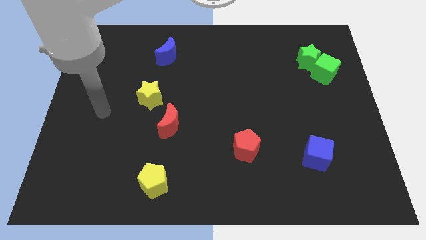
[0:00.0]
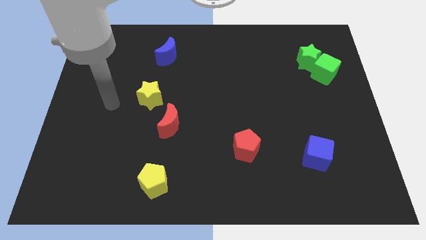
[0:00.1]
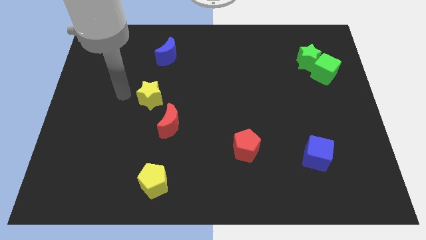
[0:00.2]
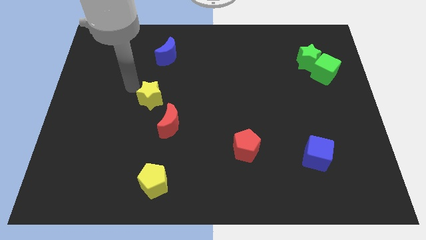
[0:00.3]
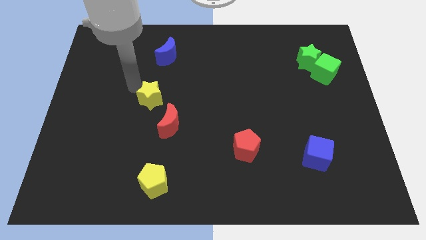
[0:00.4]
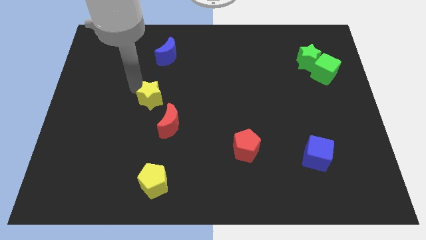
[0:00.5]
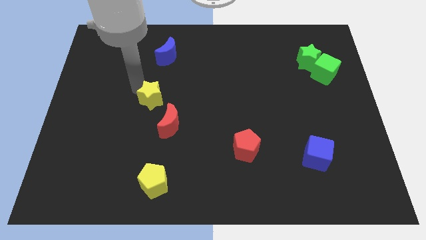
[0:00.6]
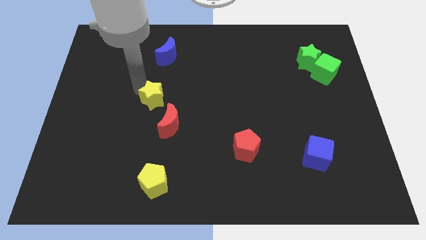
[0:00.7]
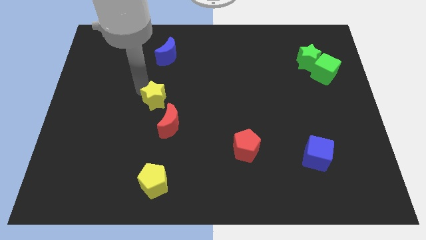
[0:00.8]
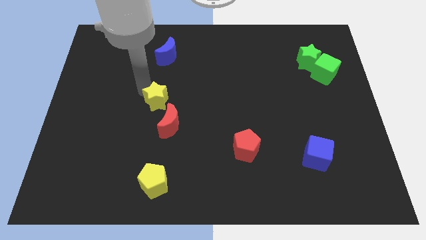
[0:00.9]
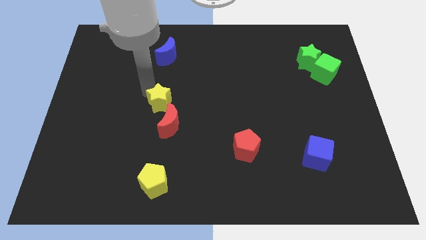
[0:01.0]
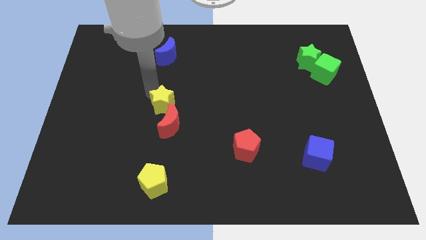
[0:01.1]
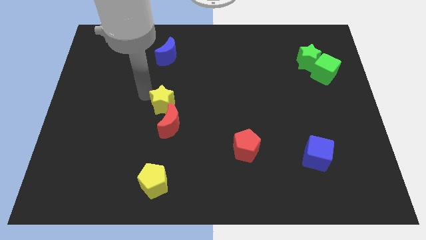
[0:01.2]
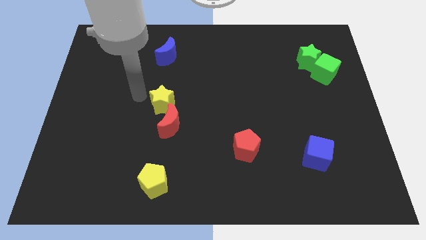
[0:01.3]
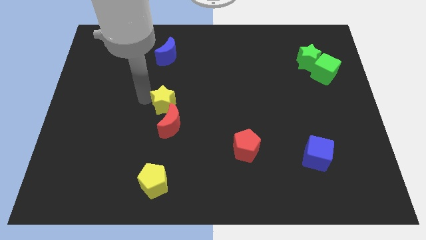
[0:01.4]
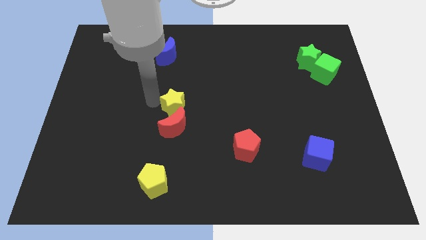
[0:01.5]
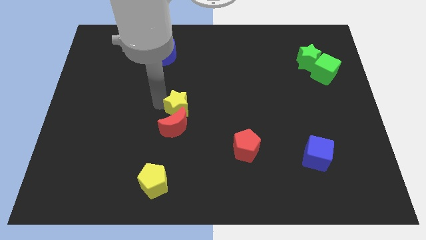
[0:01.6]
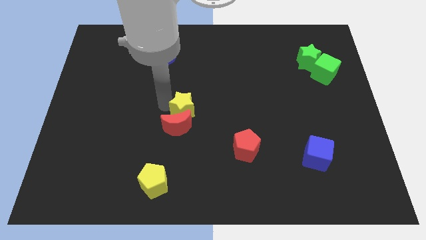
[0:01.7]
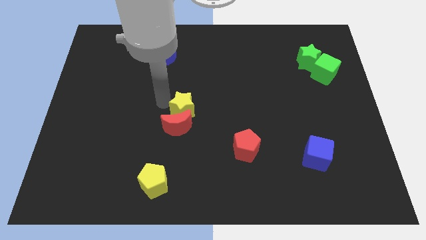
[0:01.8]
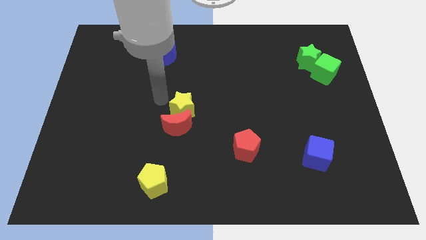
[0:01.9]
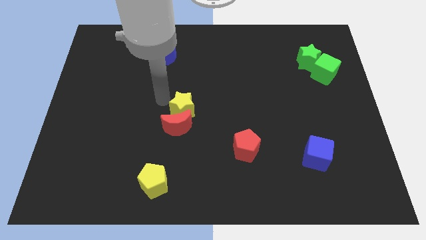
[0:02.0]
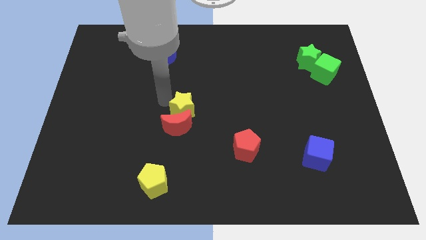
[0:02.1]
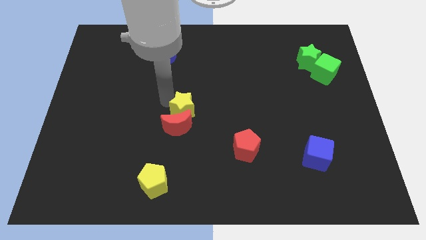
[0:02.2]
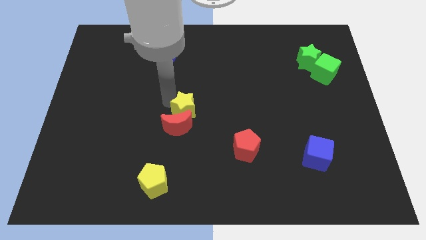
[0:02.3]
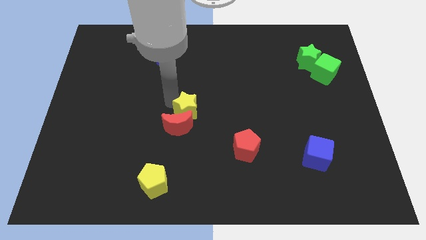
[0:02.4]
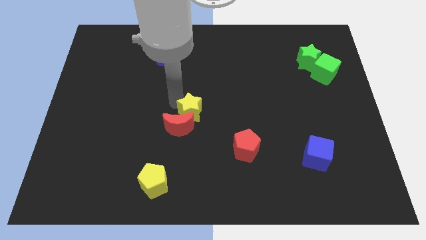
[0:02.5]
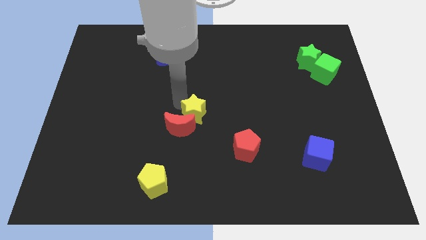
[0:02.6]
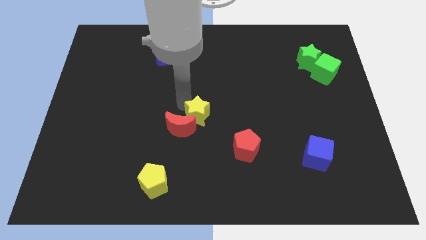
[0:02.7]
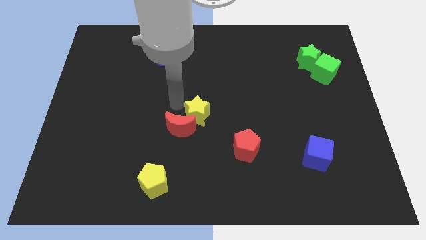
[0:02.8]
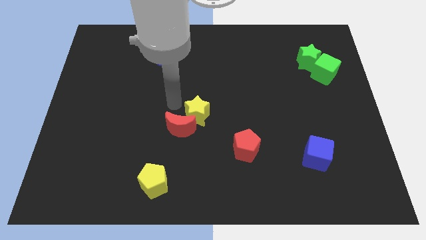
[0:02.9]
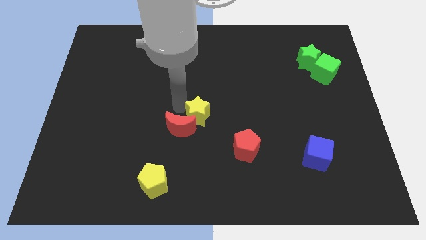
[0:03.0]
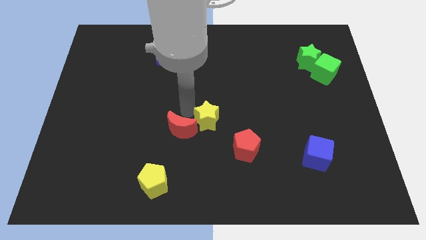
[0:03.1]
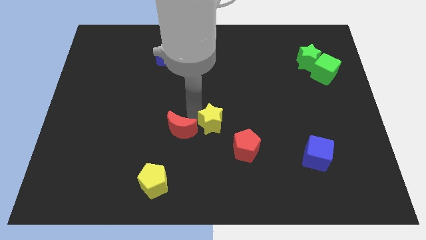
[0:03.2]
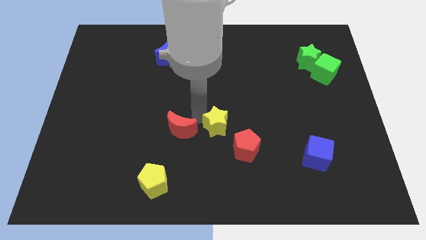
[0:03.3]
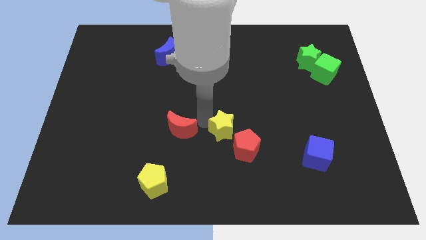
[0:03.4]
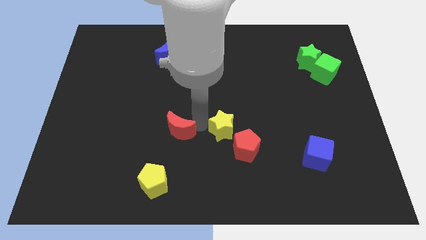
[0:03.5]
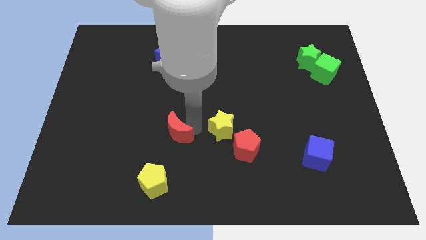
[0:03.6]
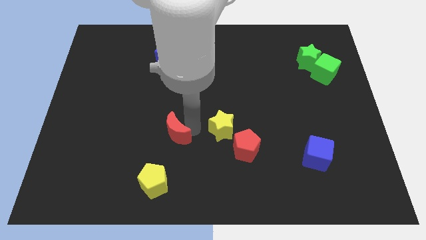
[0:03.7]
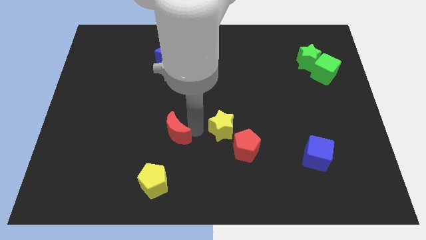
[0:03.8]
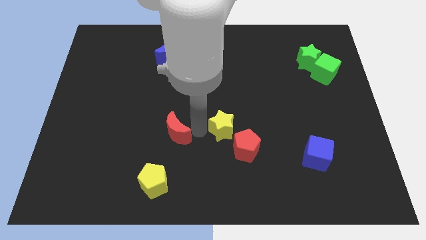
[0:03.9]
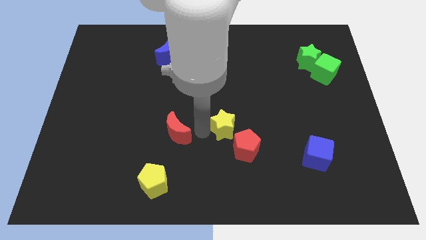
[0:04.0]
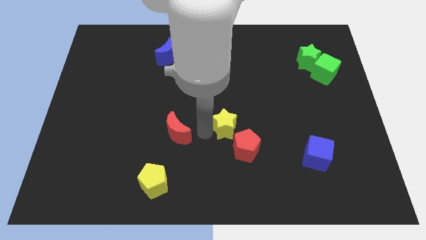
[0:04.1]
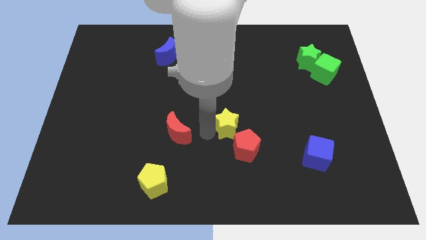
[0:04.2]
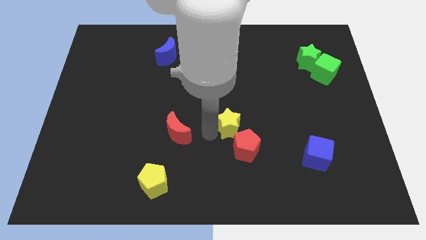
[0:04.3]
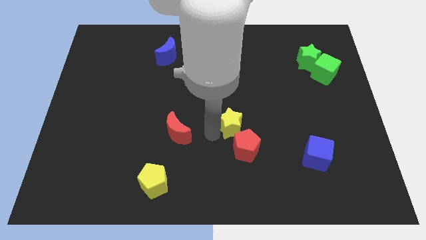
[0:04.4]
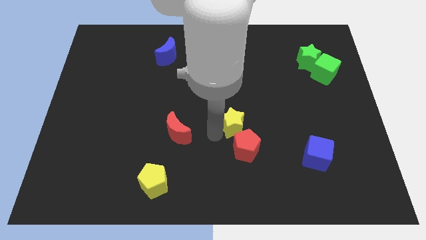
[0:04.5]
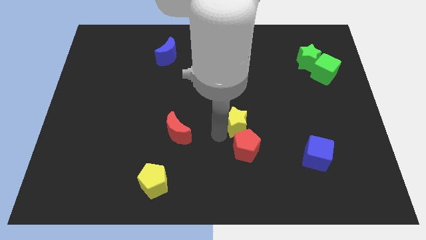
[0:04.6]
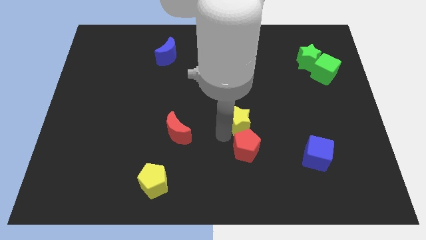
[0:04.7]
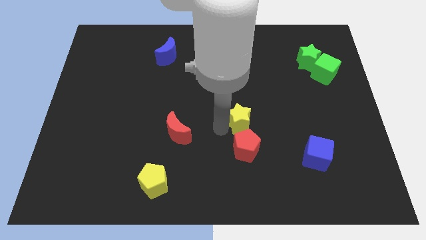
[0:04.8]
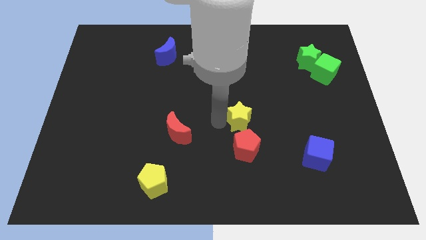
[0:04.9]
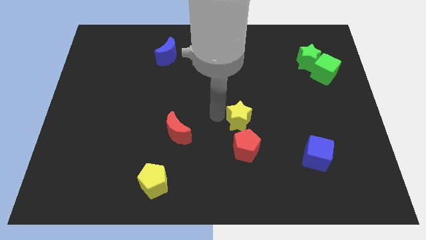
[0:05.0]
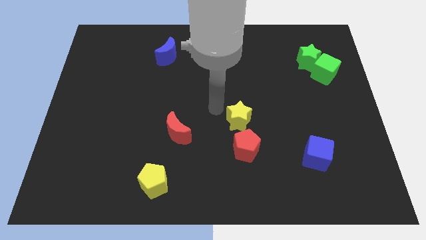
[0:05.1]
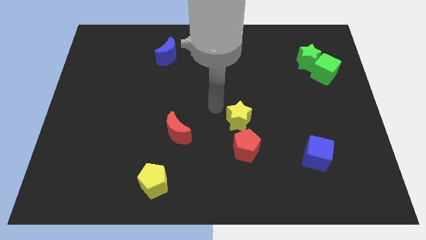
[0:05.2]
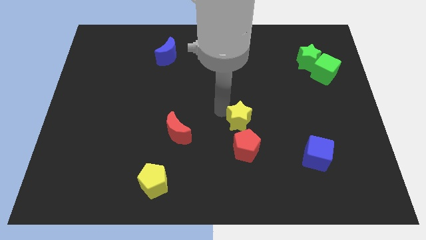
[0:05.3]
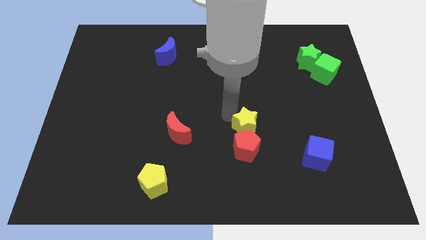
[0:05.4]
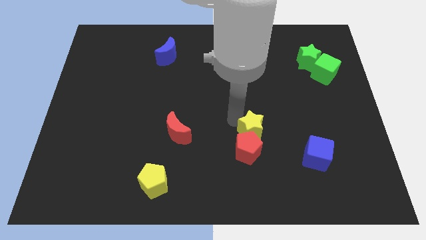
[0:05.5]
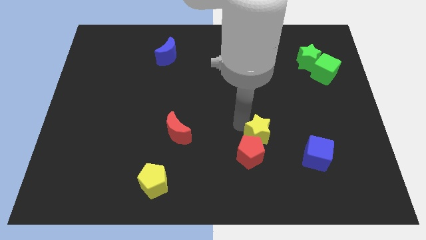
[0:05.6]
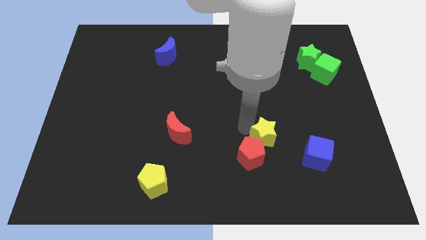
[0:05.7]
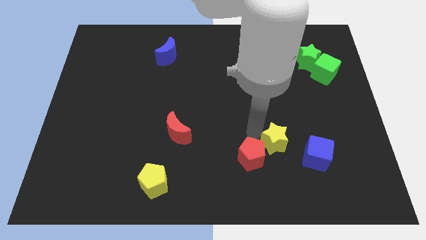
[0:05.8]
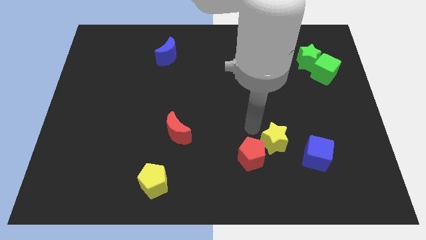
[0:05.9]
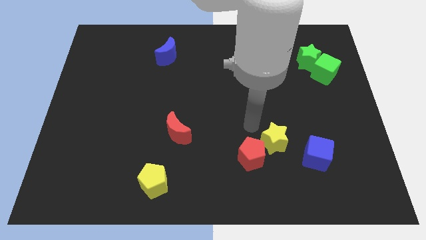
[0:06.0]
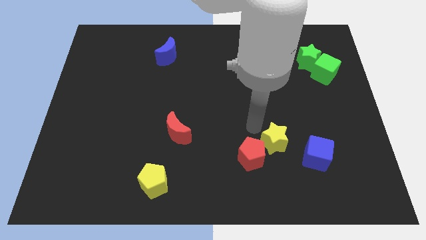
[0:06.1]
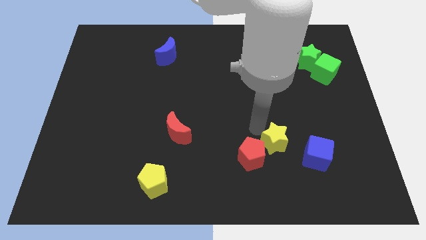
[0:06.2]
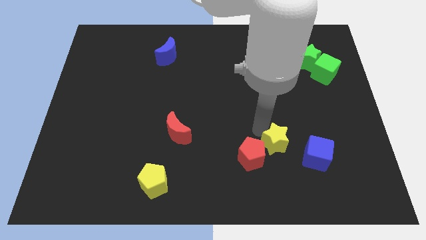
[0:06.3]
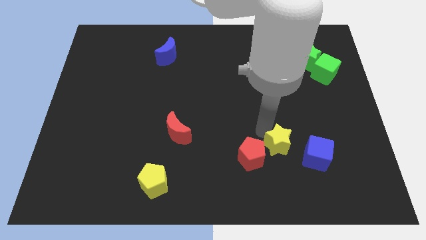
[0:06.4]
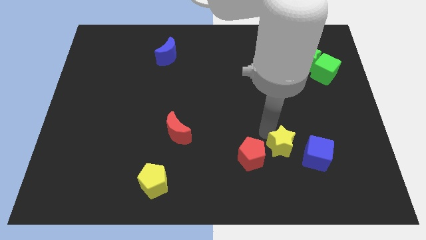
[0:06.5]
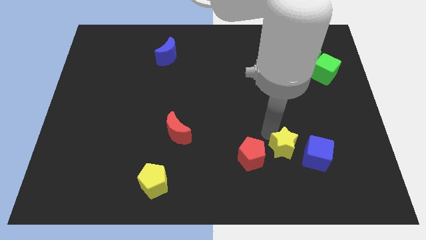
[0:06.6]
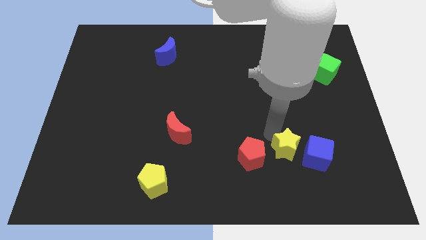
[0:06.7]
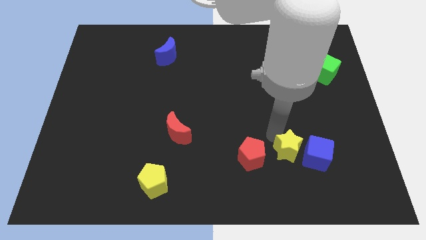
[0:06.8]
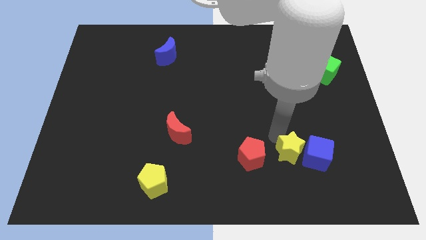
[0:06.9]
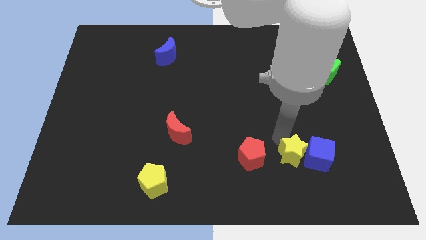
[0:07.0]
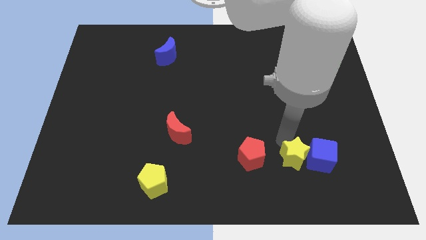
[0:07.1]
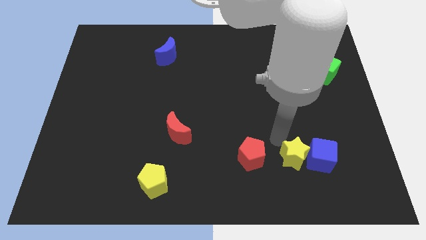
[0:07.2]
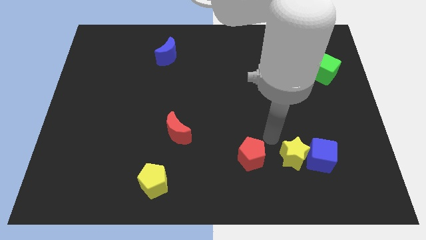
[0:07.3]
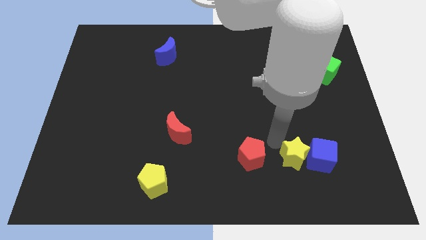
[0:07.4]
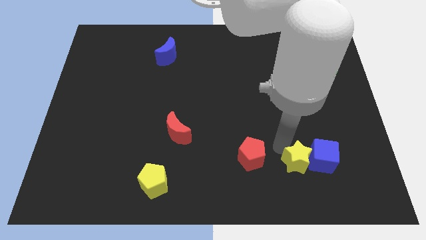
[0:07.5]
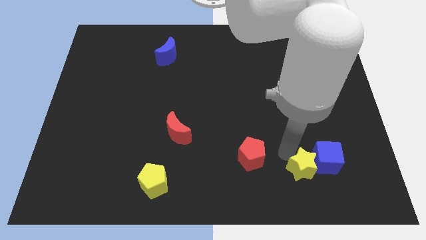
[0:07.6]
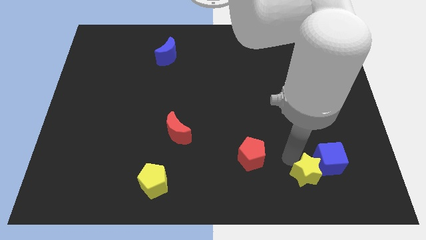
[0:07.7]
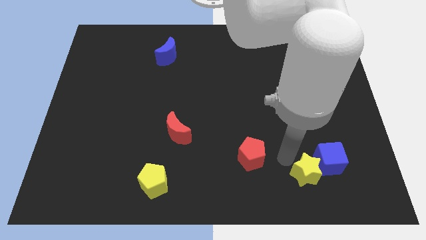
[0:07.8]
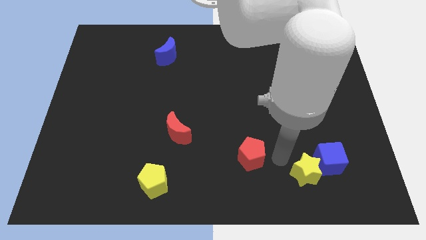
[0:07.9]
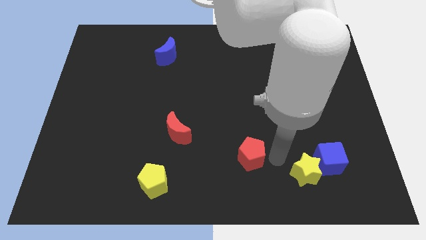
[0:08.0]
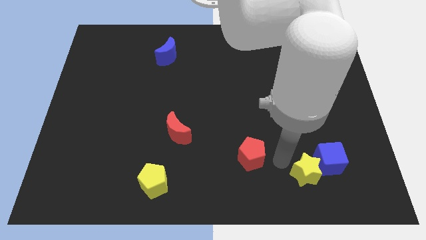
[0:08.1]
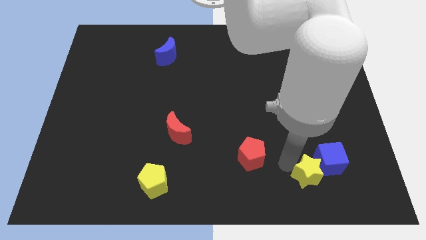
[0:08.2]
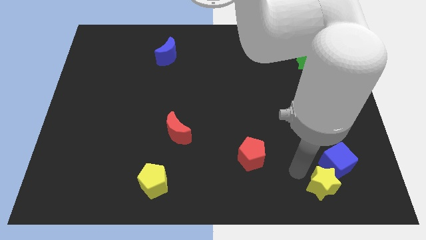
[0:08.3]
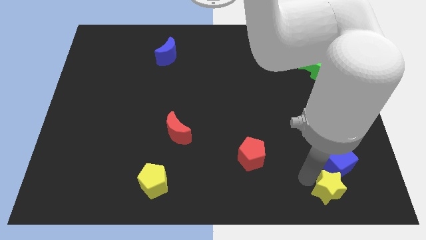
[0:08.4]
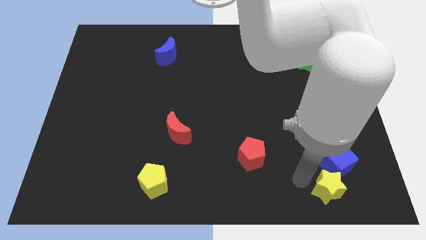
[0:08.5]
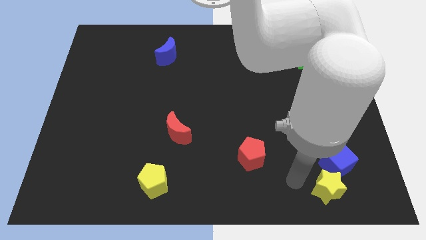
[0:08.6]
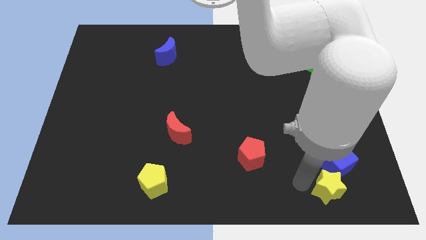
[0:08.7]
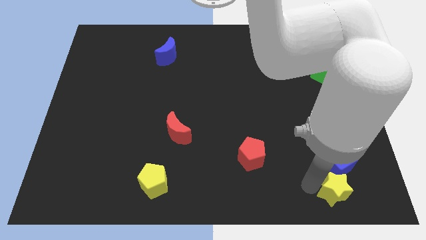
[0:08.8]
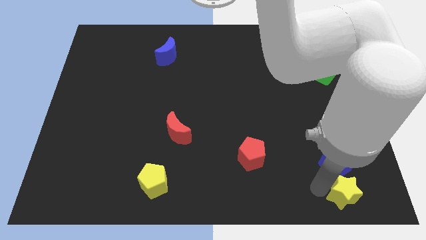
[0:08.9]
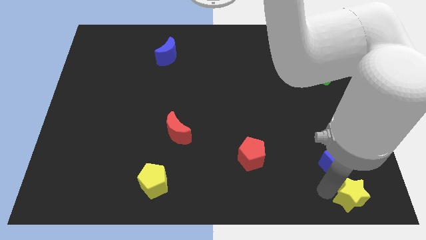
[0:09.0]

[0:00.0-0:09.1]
put the yellow star to the bottom right
